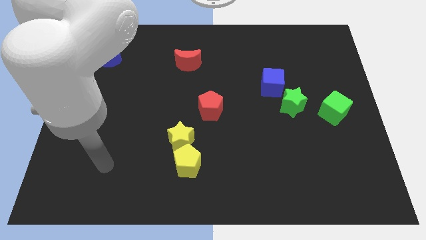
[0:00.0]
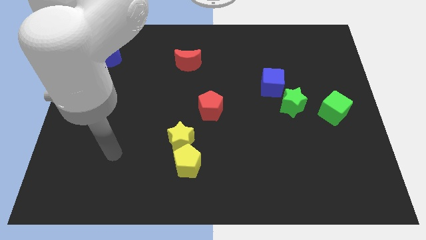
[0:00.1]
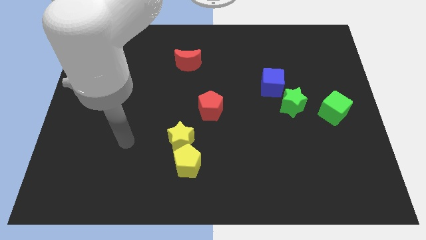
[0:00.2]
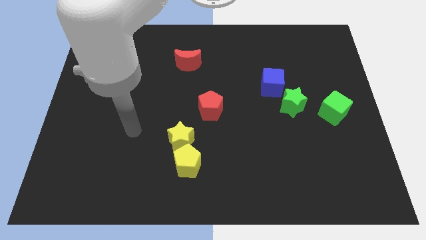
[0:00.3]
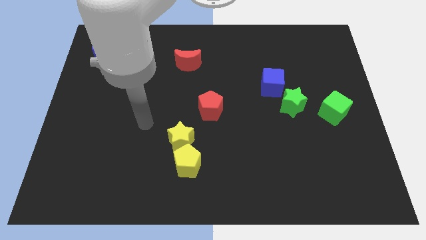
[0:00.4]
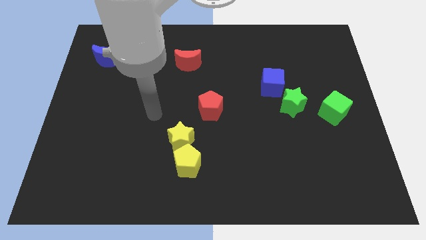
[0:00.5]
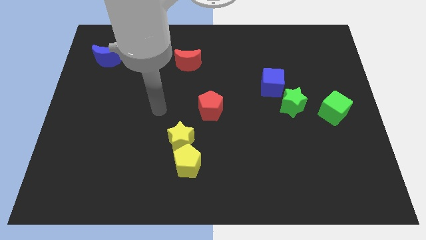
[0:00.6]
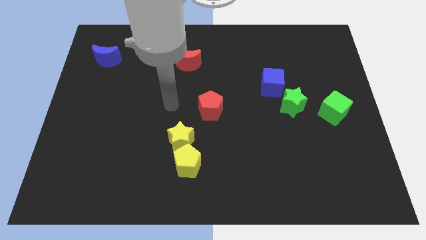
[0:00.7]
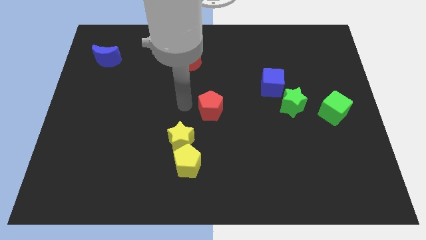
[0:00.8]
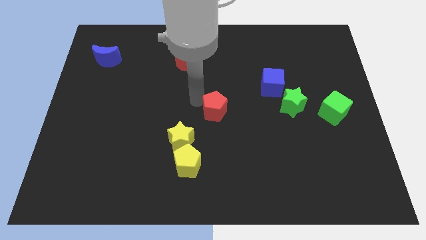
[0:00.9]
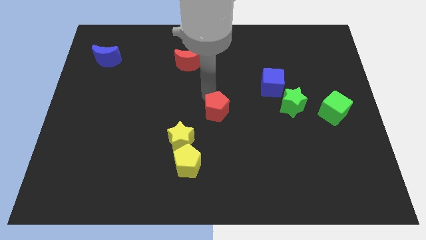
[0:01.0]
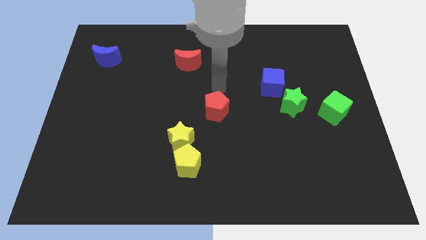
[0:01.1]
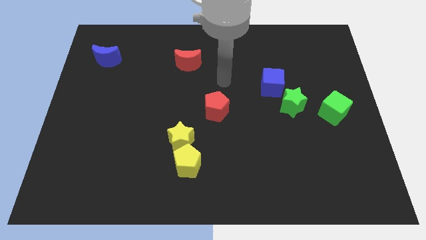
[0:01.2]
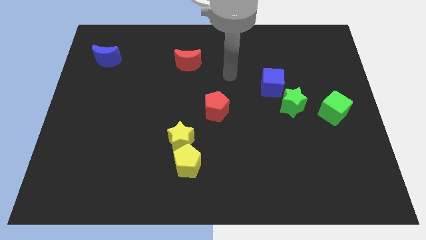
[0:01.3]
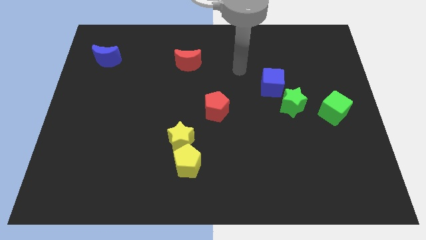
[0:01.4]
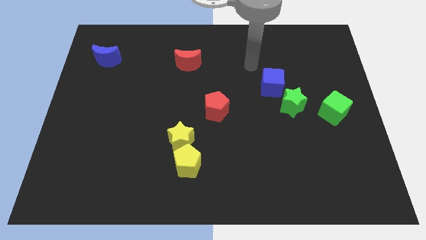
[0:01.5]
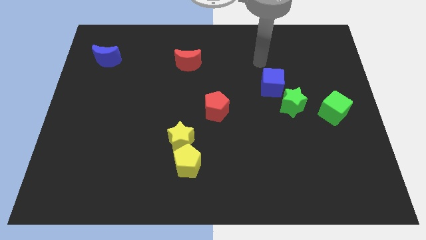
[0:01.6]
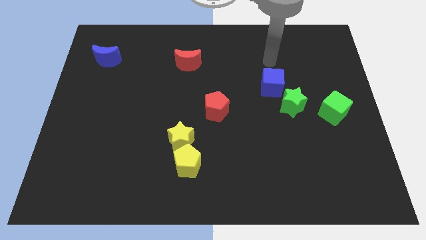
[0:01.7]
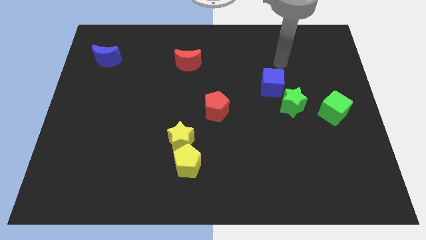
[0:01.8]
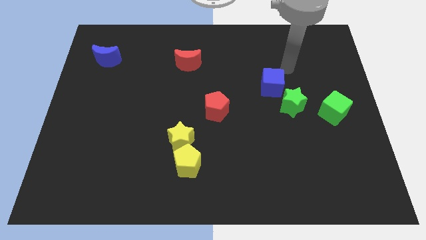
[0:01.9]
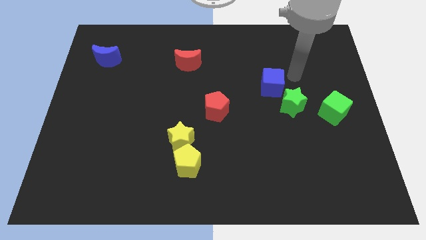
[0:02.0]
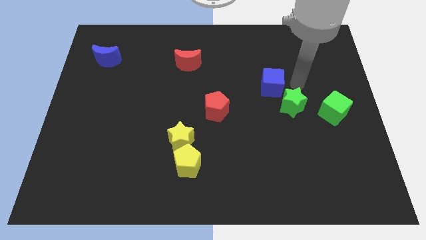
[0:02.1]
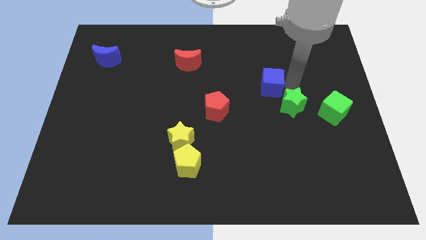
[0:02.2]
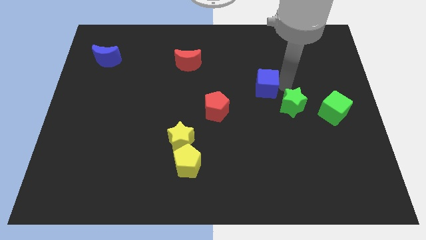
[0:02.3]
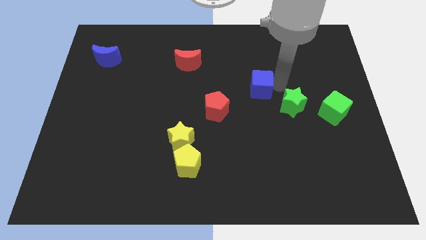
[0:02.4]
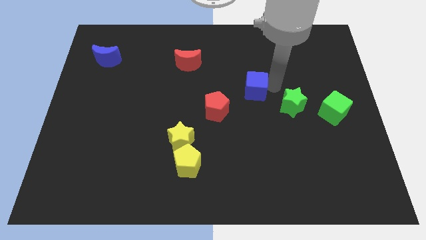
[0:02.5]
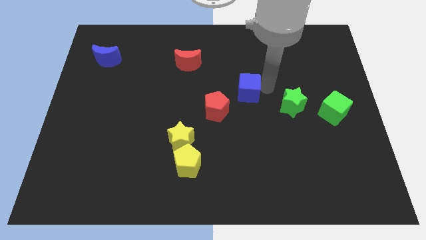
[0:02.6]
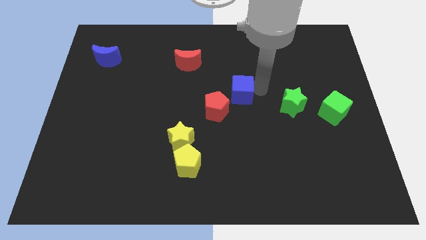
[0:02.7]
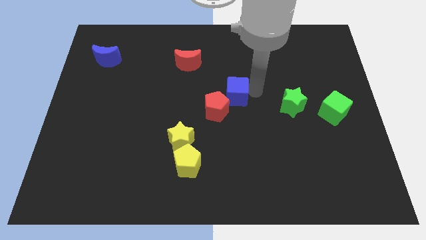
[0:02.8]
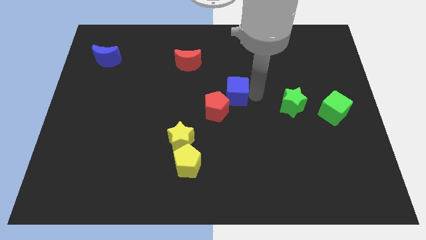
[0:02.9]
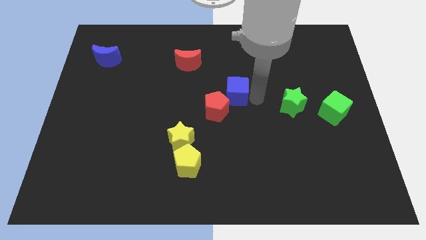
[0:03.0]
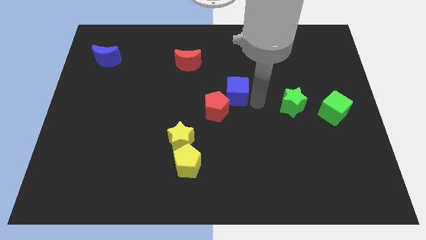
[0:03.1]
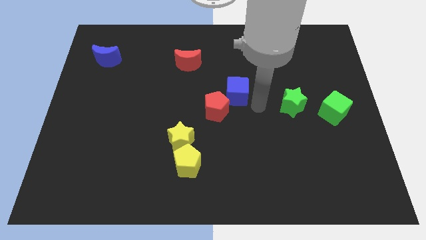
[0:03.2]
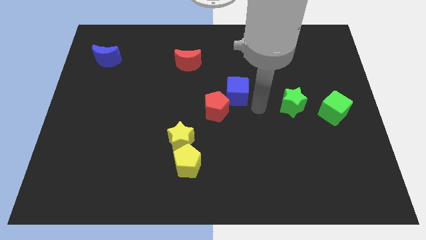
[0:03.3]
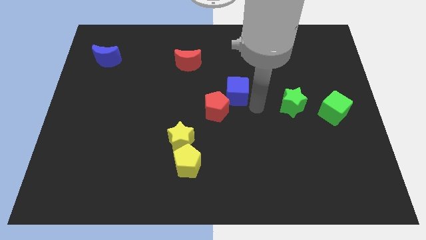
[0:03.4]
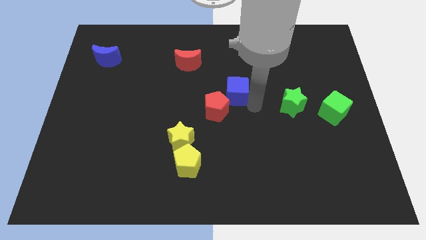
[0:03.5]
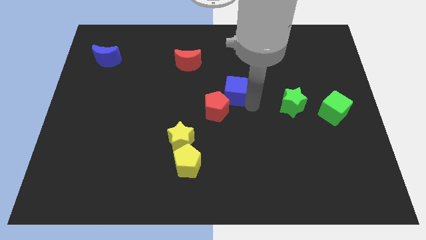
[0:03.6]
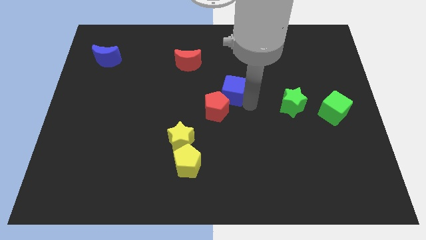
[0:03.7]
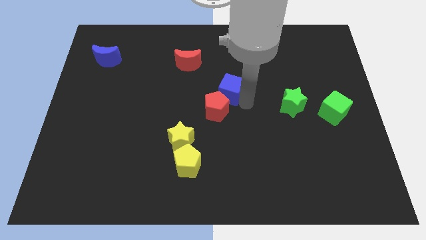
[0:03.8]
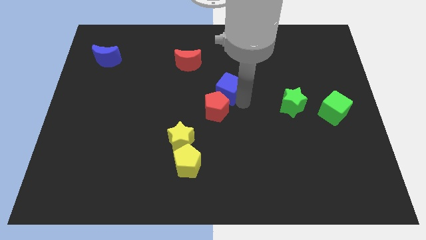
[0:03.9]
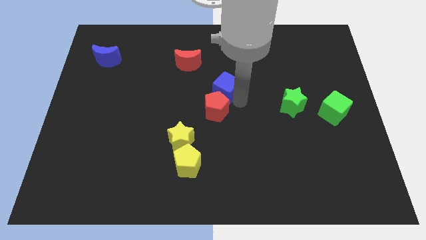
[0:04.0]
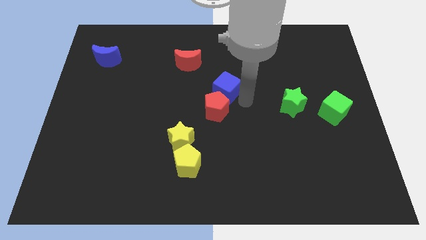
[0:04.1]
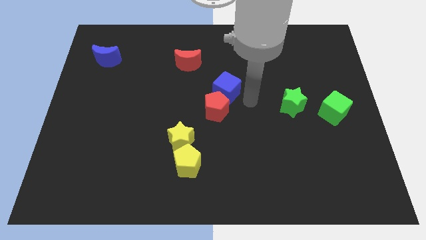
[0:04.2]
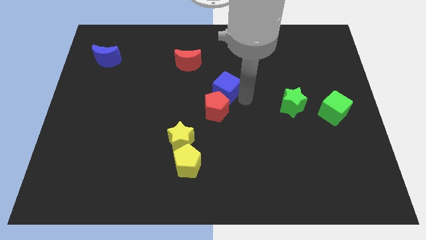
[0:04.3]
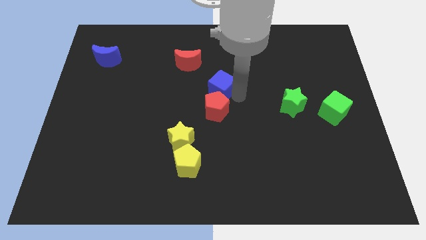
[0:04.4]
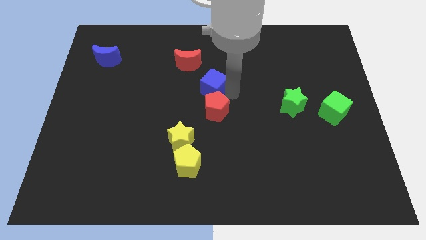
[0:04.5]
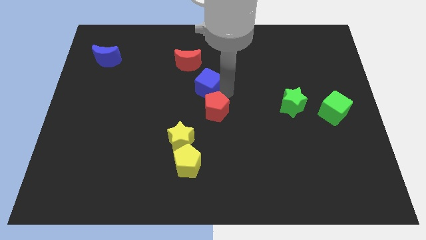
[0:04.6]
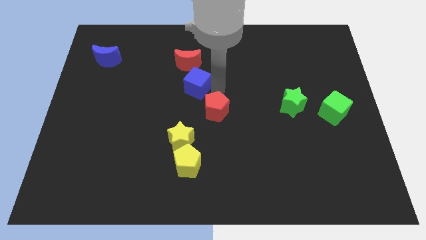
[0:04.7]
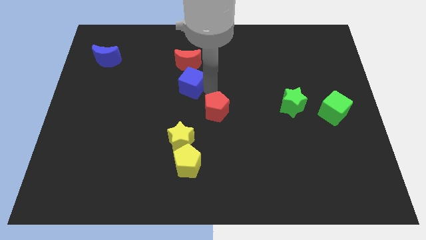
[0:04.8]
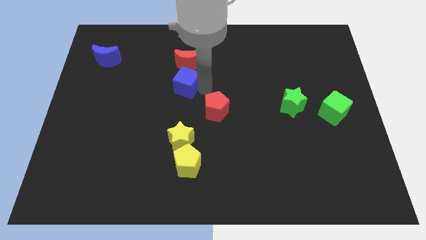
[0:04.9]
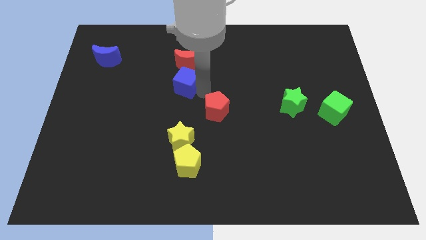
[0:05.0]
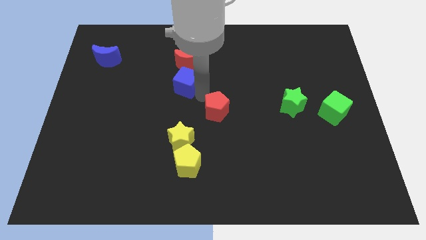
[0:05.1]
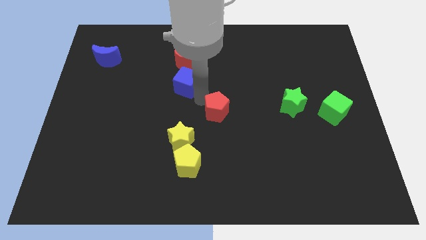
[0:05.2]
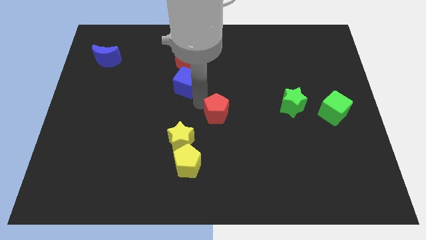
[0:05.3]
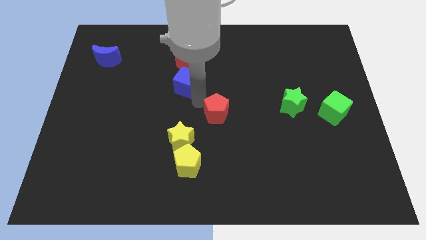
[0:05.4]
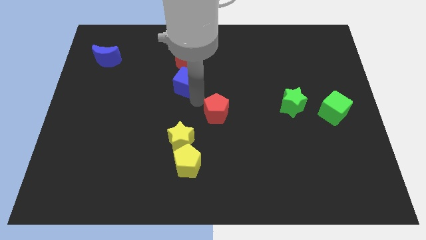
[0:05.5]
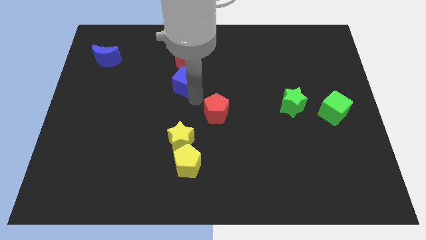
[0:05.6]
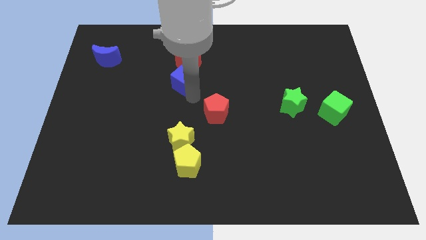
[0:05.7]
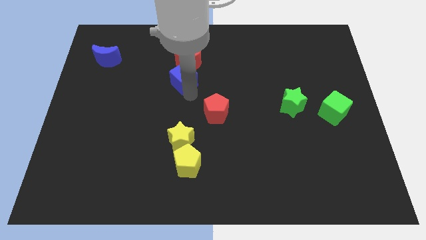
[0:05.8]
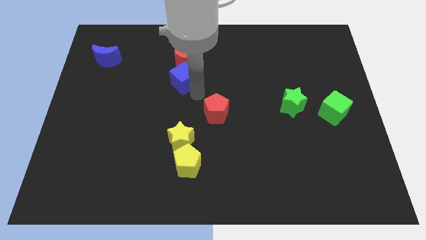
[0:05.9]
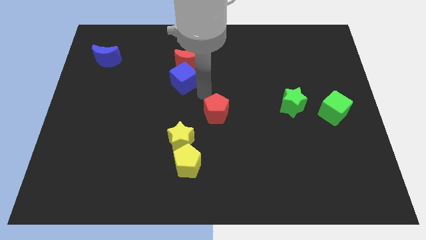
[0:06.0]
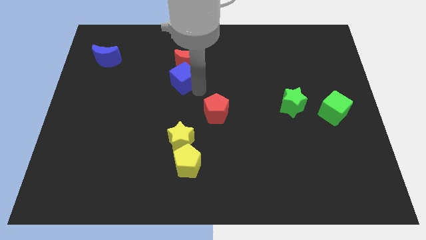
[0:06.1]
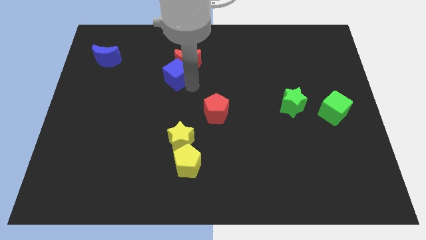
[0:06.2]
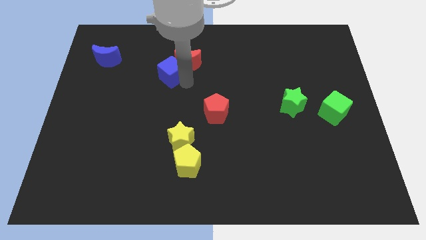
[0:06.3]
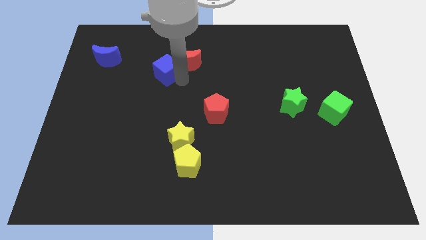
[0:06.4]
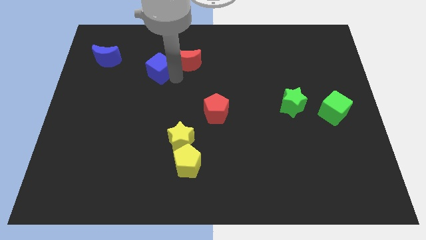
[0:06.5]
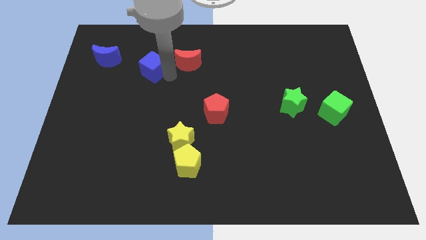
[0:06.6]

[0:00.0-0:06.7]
put the blue cube to the right side of the blue moon
